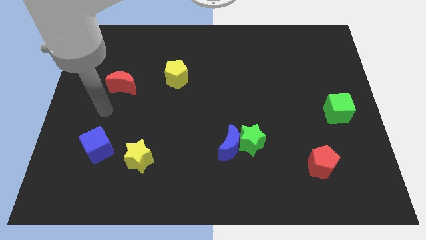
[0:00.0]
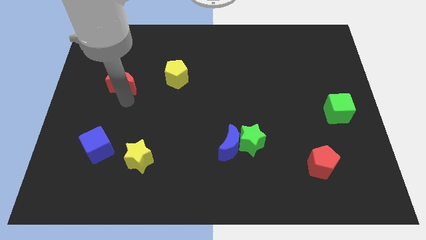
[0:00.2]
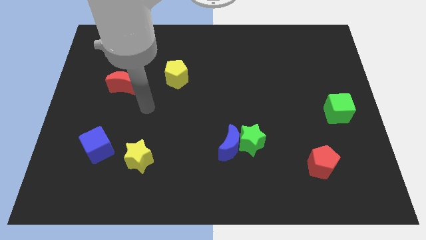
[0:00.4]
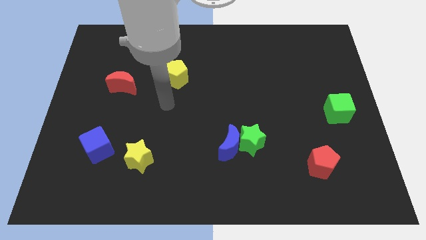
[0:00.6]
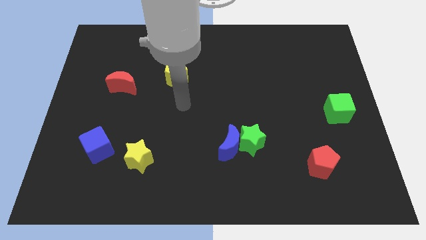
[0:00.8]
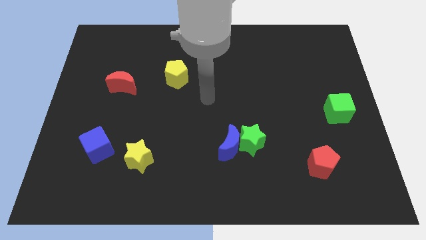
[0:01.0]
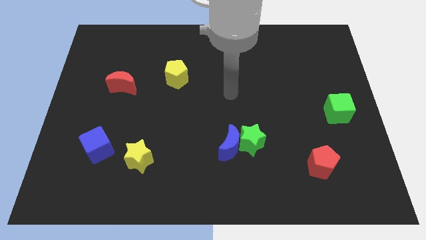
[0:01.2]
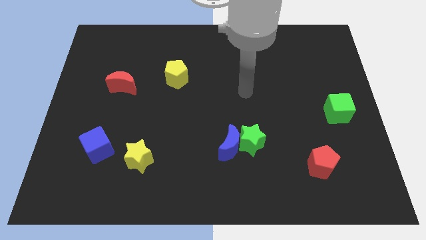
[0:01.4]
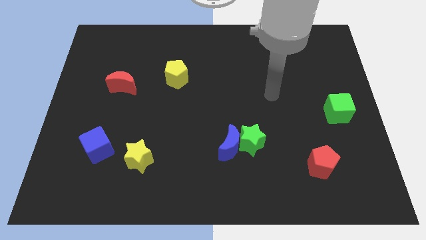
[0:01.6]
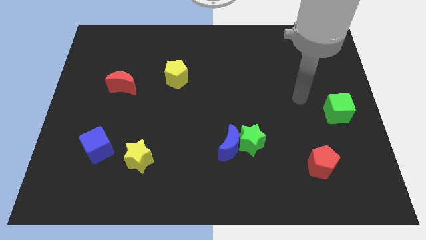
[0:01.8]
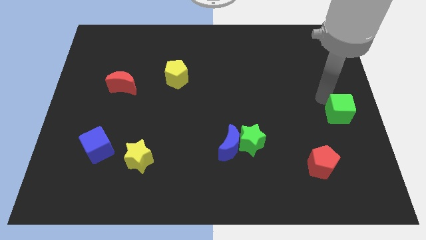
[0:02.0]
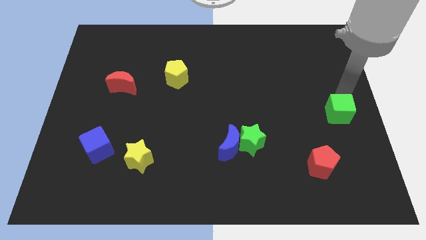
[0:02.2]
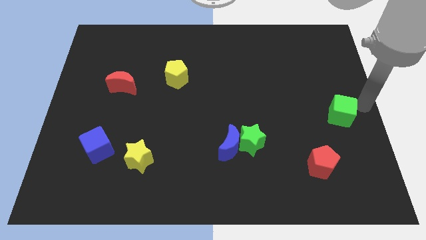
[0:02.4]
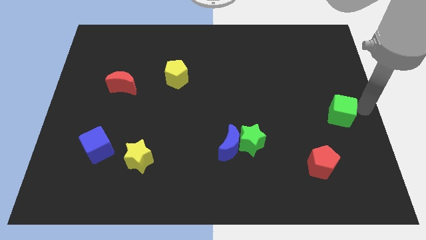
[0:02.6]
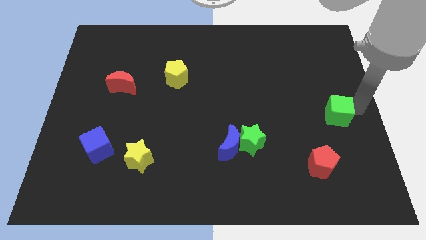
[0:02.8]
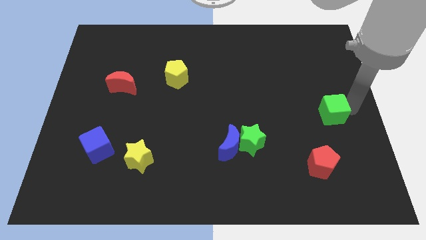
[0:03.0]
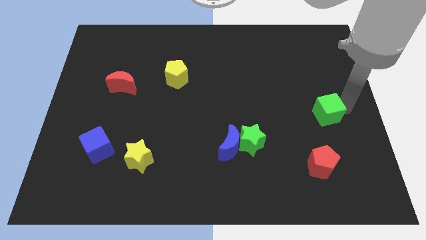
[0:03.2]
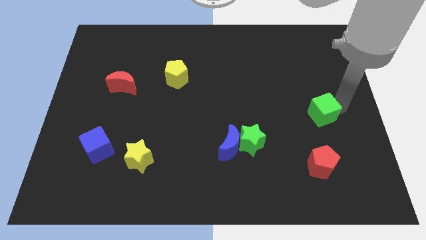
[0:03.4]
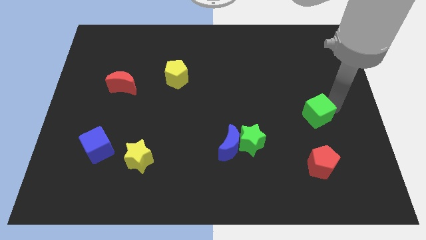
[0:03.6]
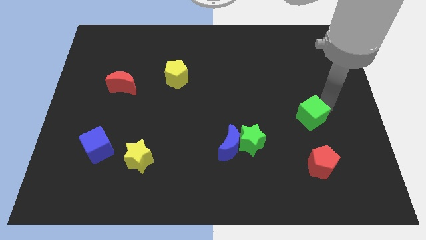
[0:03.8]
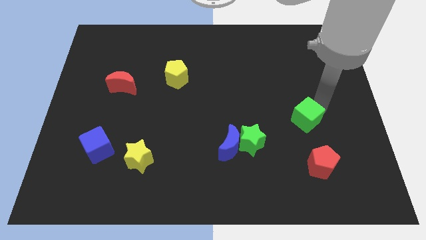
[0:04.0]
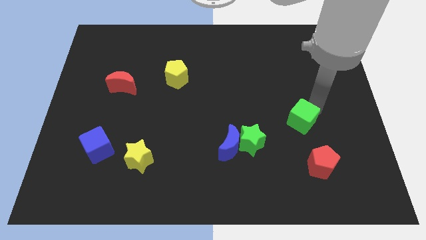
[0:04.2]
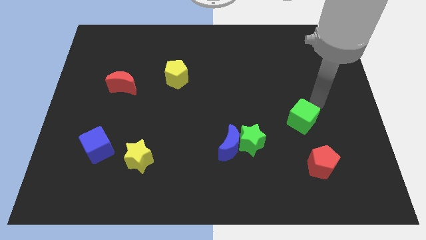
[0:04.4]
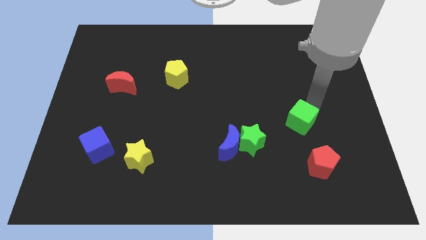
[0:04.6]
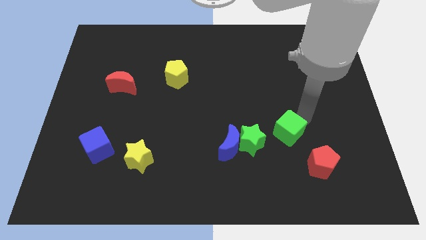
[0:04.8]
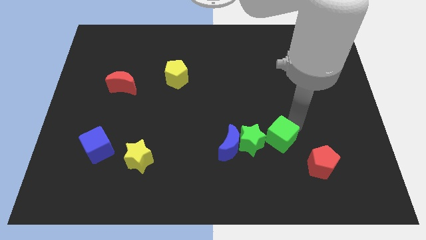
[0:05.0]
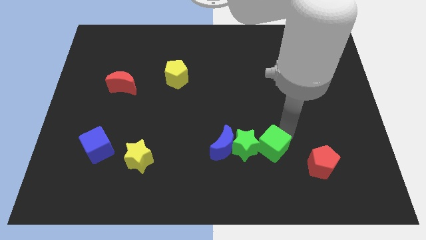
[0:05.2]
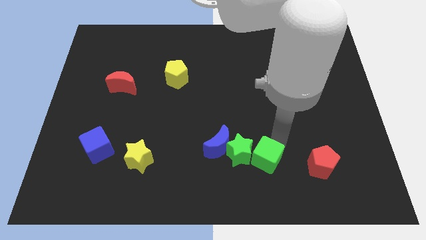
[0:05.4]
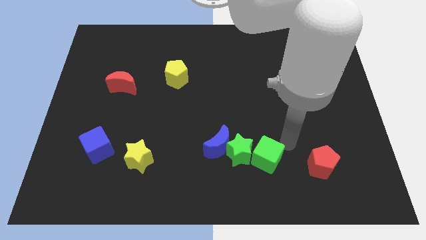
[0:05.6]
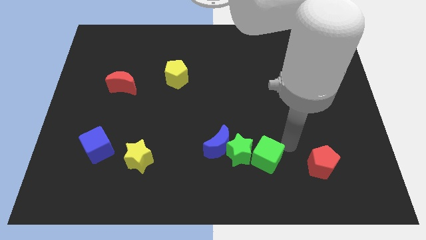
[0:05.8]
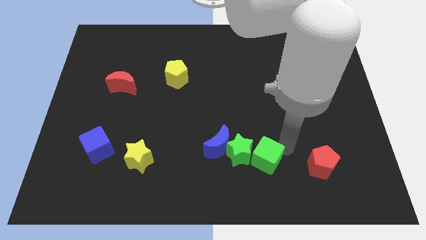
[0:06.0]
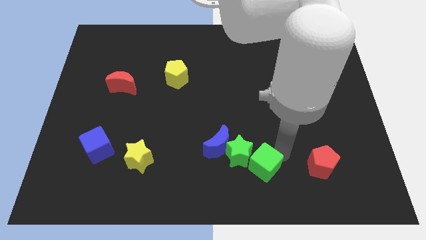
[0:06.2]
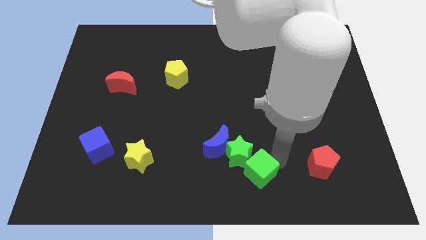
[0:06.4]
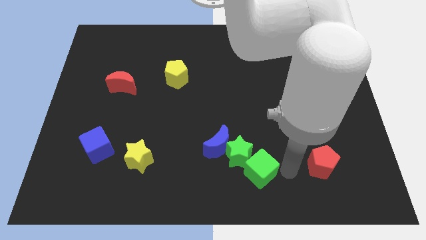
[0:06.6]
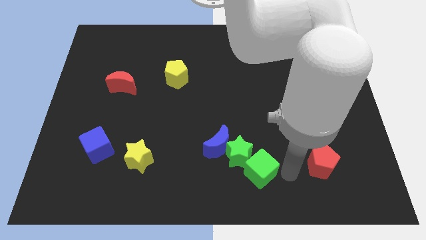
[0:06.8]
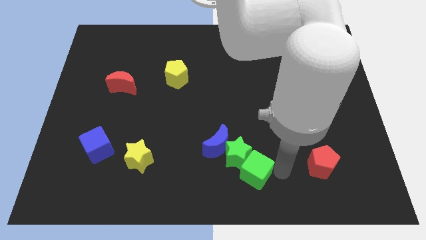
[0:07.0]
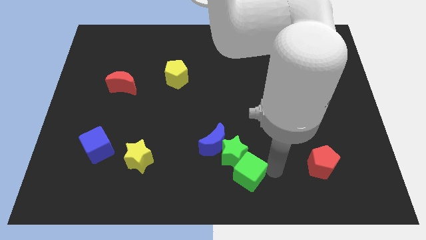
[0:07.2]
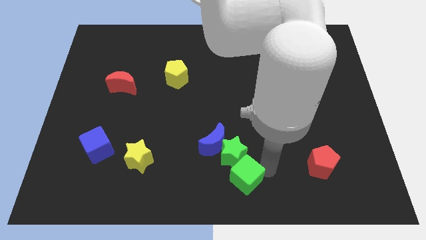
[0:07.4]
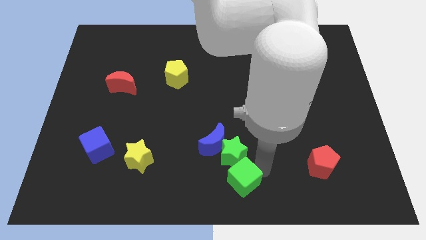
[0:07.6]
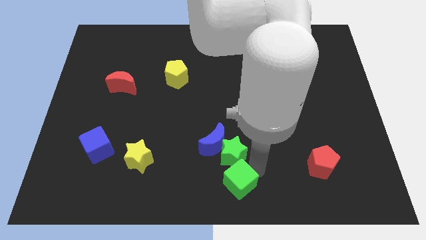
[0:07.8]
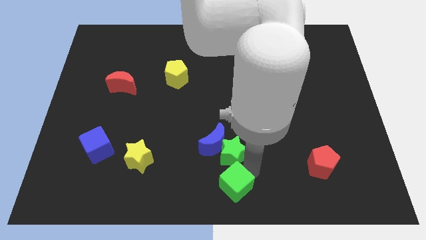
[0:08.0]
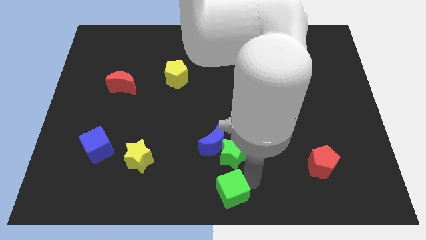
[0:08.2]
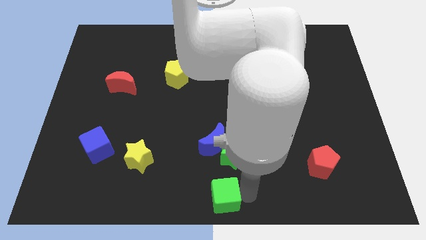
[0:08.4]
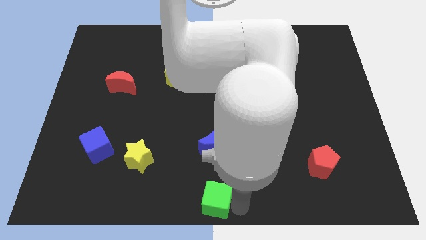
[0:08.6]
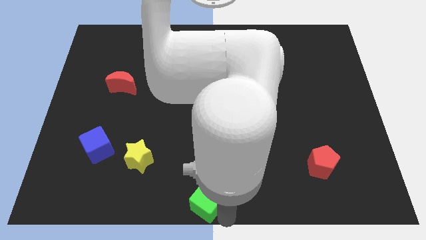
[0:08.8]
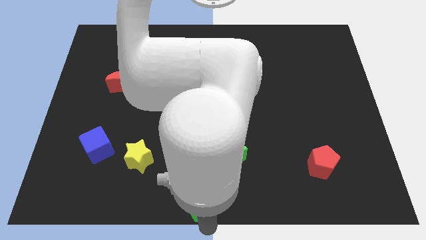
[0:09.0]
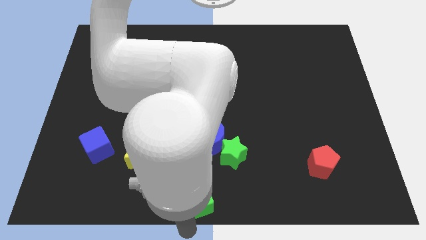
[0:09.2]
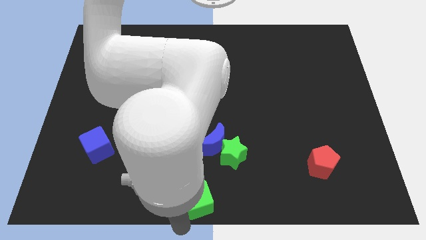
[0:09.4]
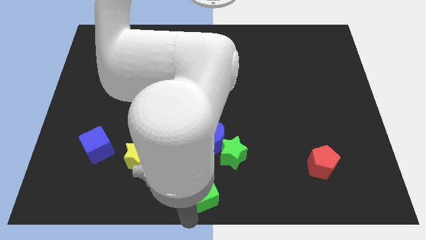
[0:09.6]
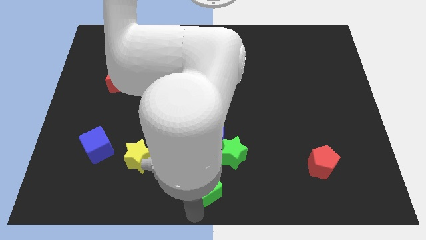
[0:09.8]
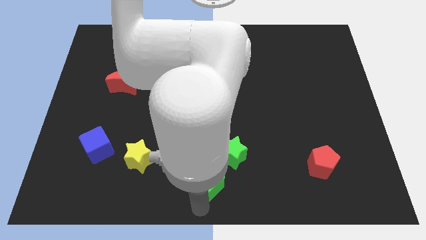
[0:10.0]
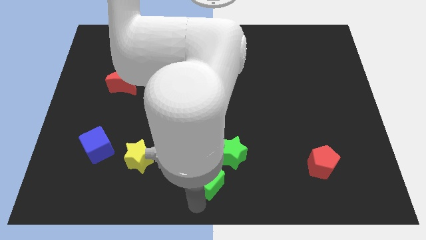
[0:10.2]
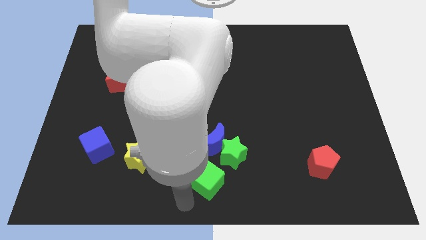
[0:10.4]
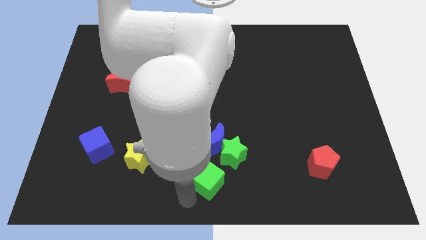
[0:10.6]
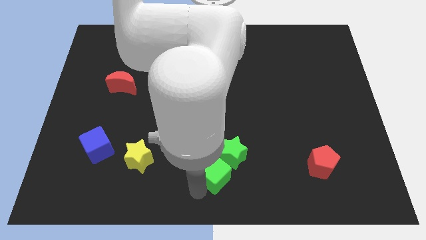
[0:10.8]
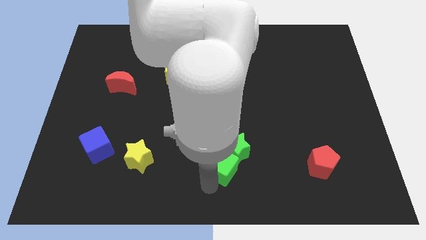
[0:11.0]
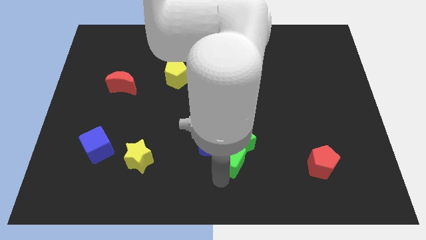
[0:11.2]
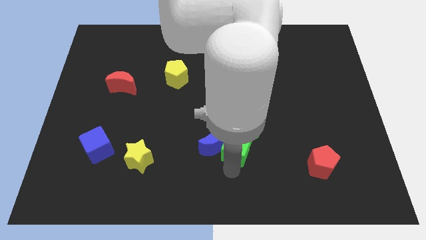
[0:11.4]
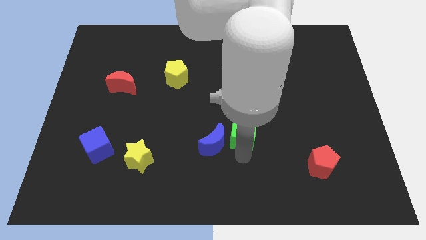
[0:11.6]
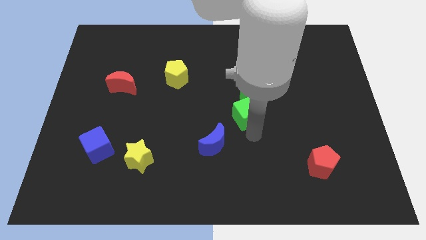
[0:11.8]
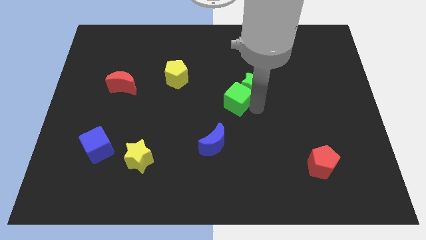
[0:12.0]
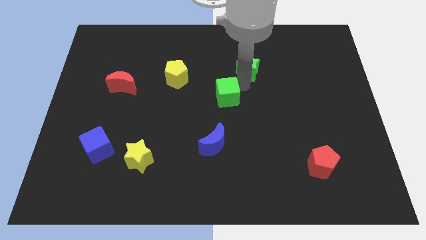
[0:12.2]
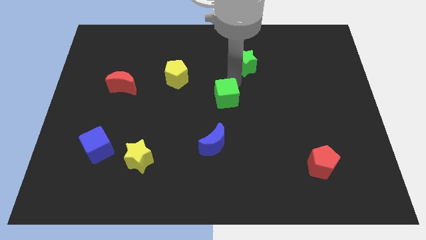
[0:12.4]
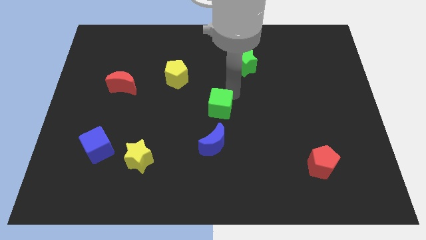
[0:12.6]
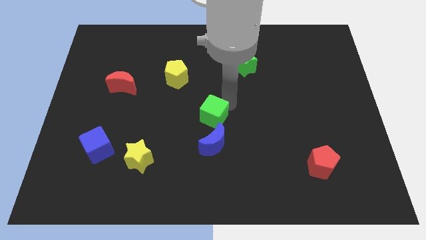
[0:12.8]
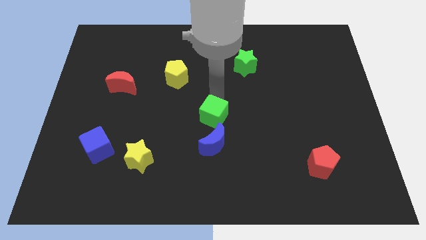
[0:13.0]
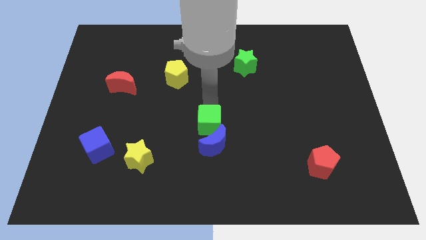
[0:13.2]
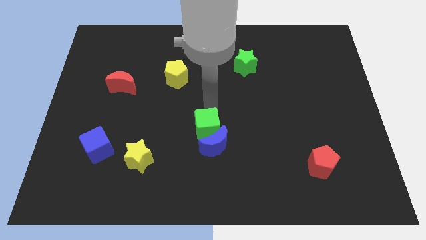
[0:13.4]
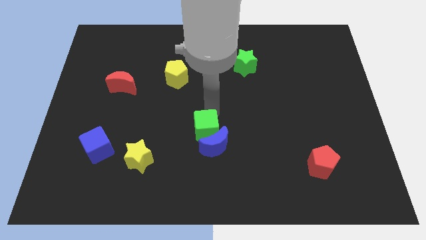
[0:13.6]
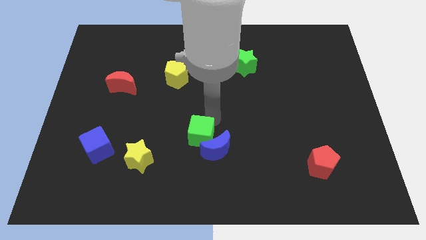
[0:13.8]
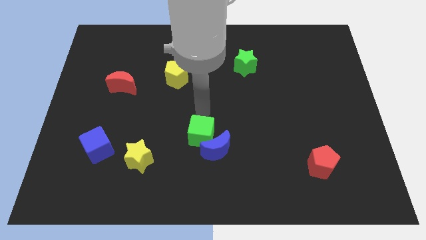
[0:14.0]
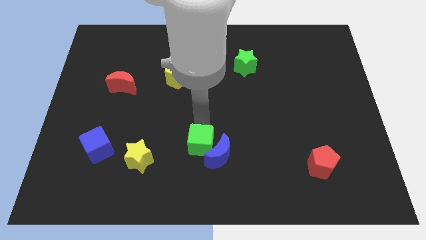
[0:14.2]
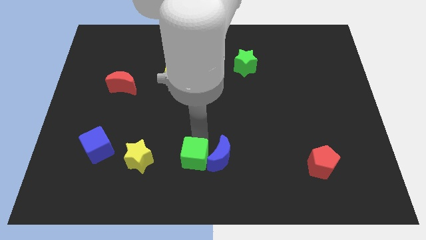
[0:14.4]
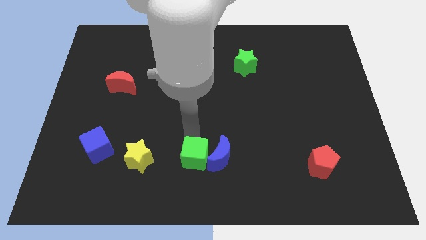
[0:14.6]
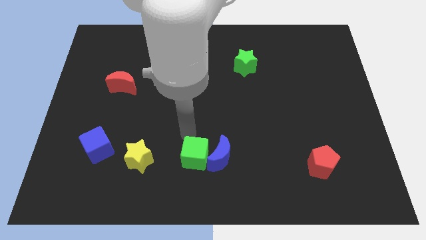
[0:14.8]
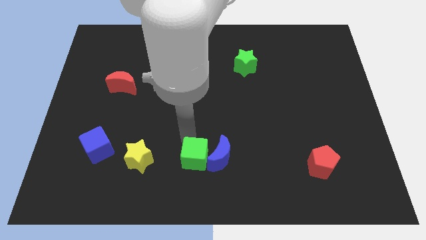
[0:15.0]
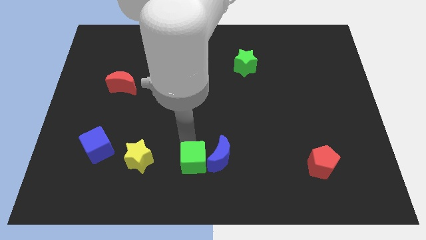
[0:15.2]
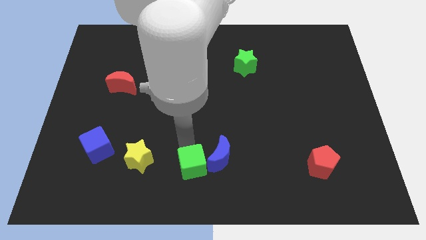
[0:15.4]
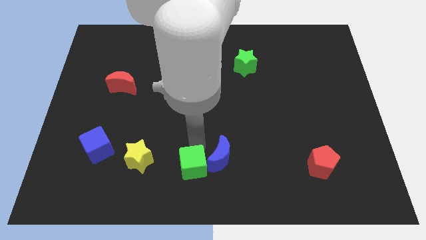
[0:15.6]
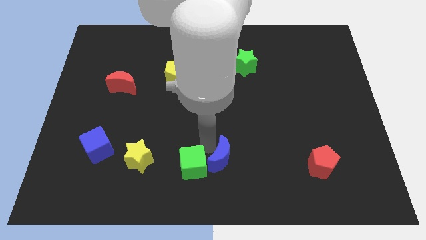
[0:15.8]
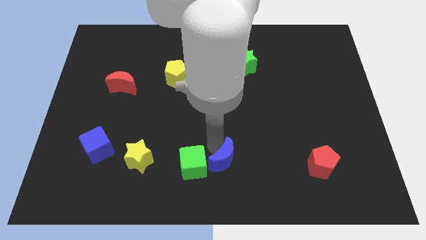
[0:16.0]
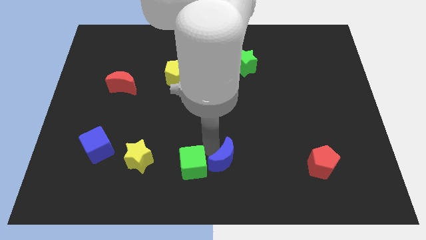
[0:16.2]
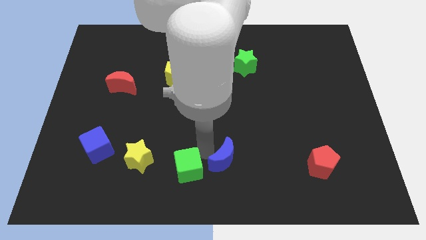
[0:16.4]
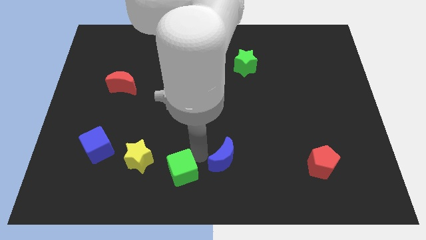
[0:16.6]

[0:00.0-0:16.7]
slide the green cube to the bottom right side of the yellow star
